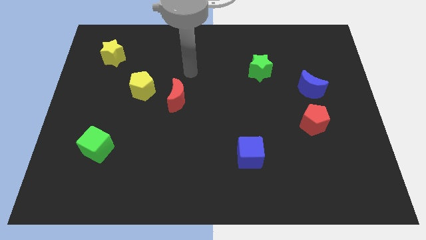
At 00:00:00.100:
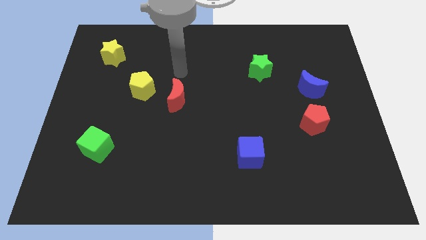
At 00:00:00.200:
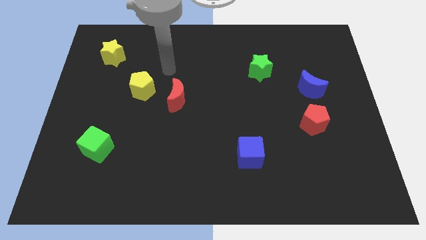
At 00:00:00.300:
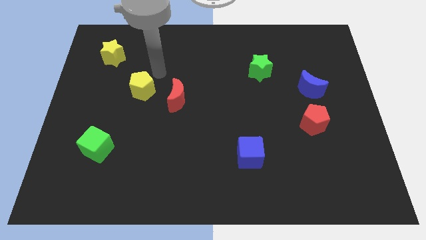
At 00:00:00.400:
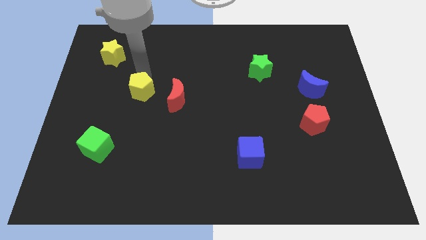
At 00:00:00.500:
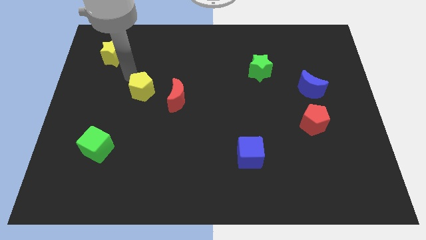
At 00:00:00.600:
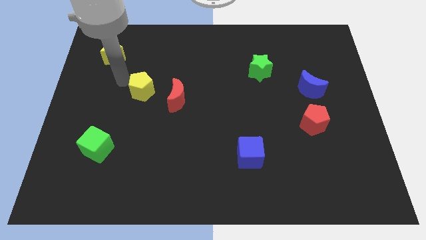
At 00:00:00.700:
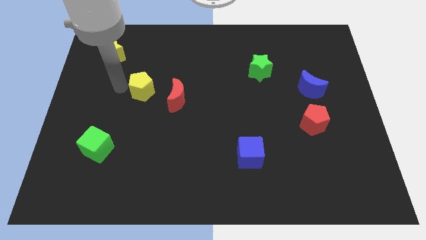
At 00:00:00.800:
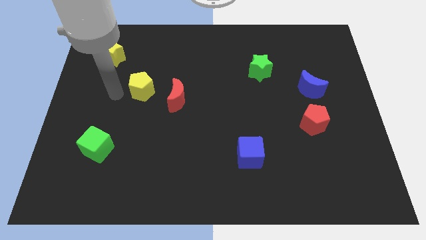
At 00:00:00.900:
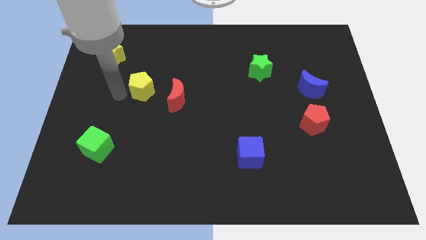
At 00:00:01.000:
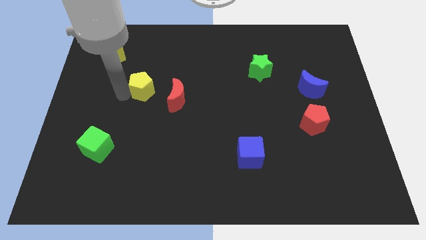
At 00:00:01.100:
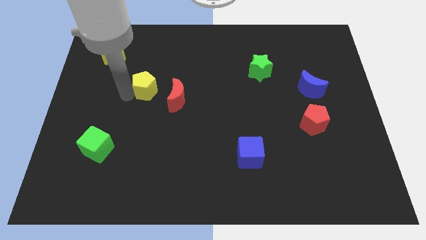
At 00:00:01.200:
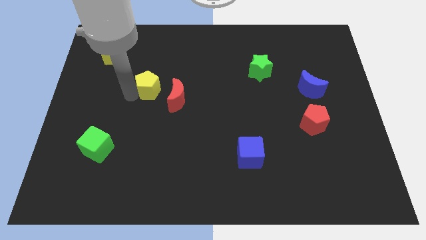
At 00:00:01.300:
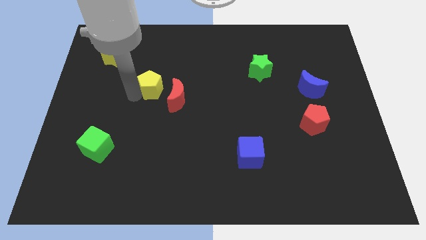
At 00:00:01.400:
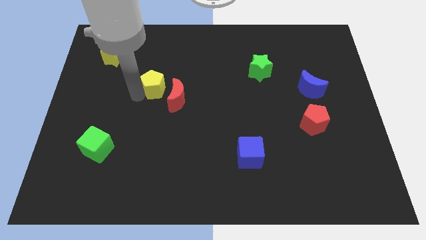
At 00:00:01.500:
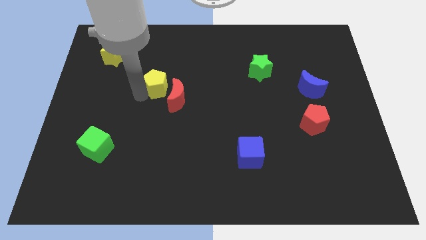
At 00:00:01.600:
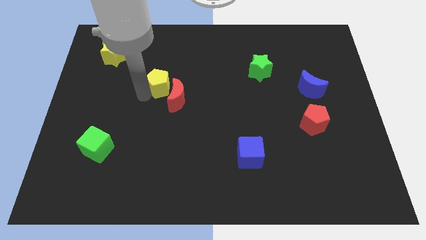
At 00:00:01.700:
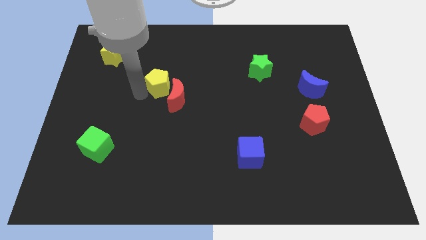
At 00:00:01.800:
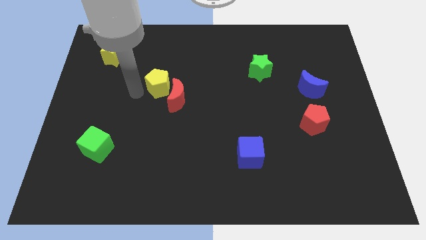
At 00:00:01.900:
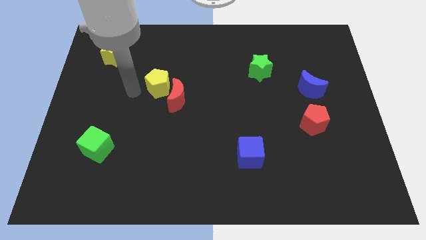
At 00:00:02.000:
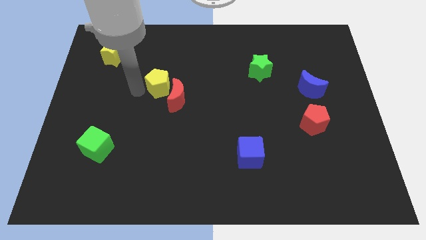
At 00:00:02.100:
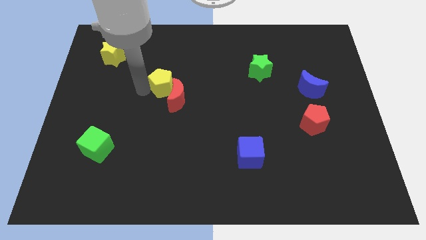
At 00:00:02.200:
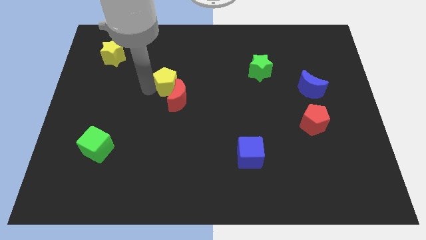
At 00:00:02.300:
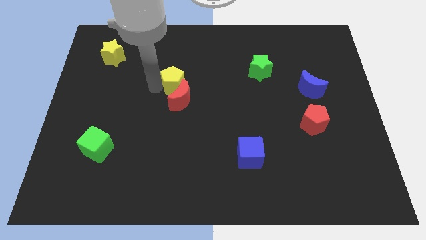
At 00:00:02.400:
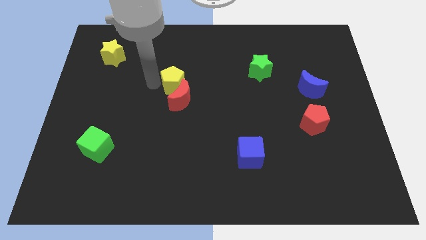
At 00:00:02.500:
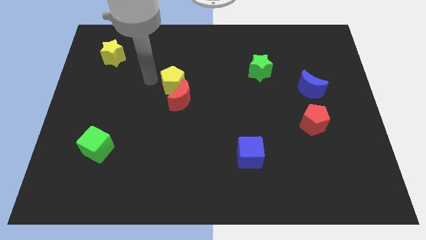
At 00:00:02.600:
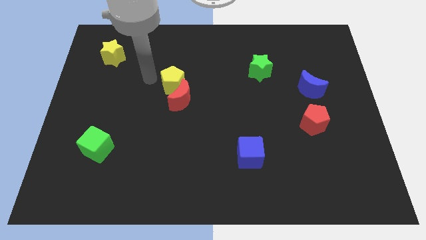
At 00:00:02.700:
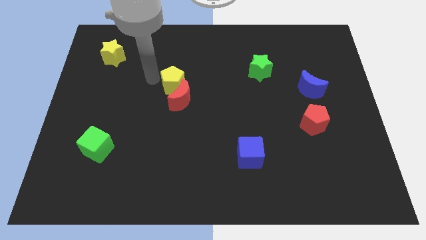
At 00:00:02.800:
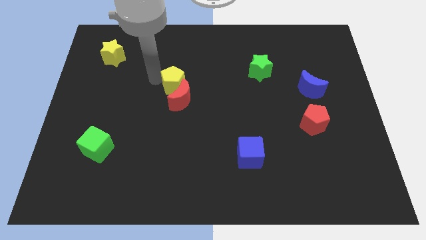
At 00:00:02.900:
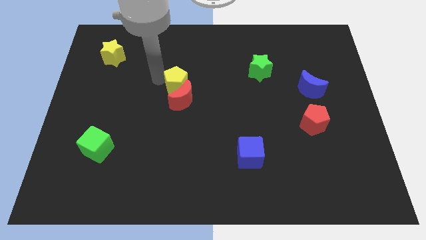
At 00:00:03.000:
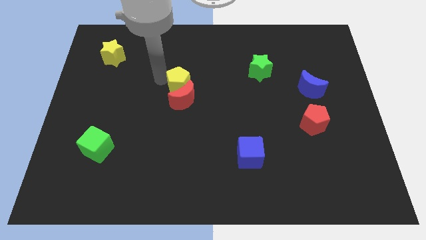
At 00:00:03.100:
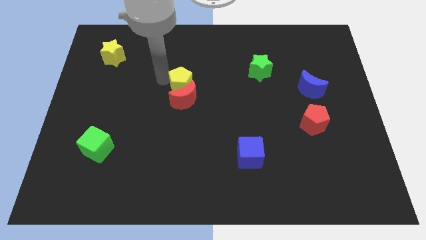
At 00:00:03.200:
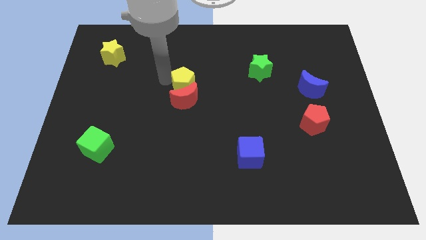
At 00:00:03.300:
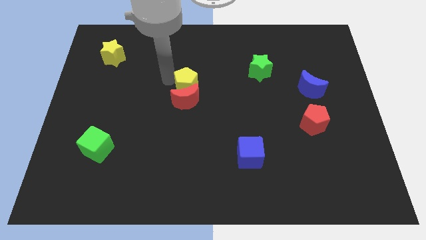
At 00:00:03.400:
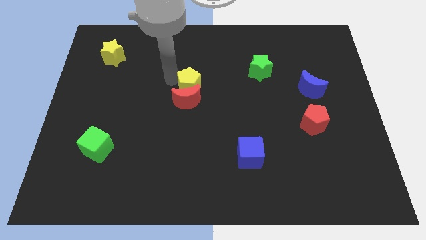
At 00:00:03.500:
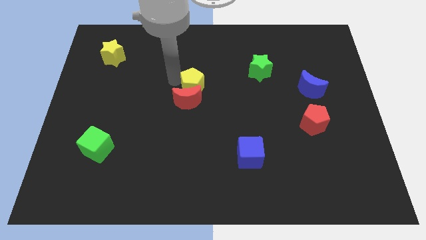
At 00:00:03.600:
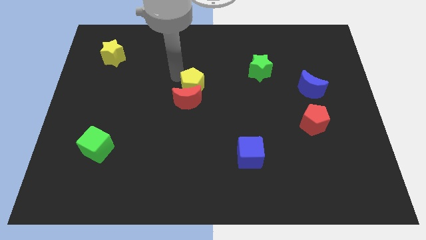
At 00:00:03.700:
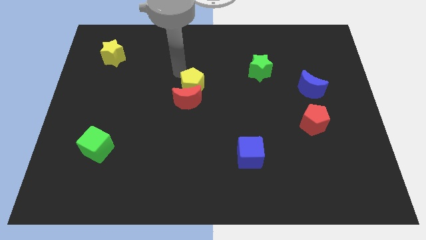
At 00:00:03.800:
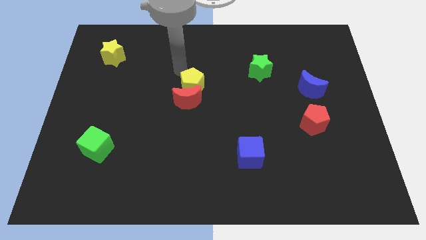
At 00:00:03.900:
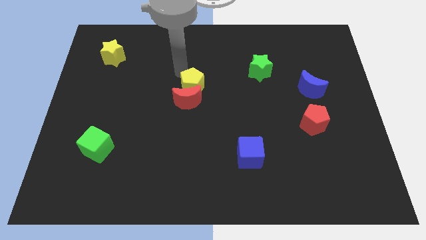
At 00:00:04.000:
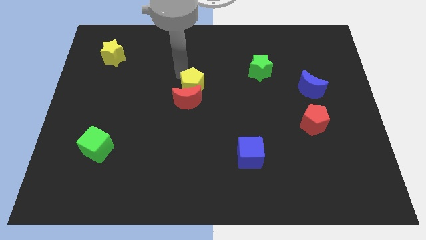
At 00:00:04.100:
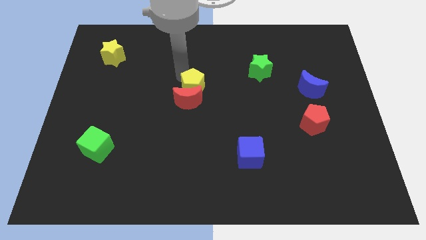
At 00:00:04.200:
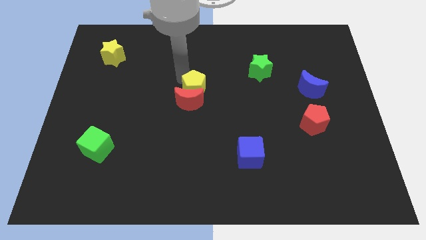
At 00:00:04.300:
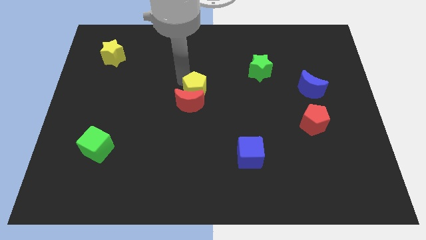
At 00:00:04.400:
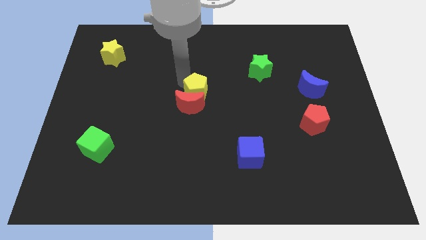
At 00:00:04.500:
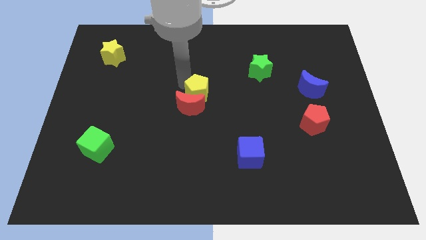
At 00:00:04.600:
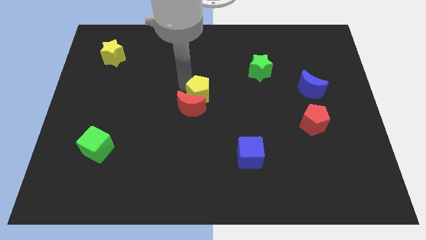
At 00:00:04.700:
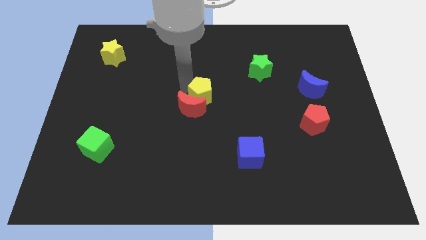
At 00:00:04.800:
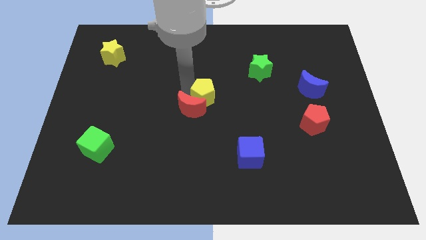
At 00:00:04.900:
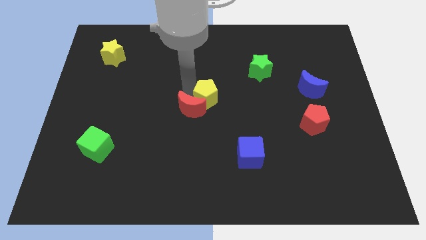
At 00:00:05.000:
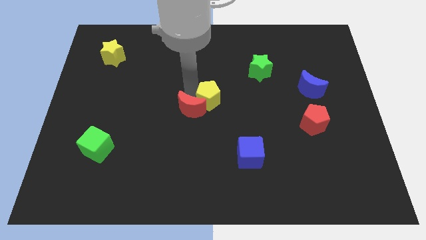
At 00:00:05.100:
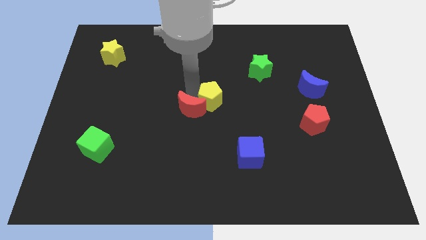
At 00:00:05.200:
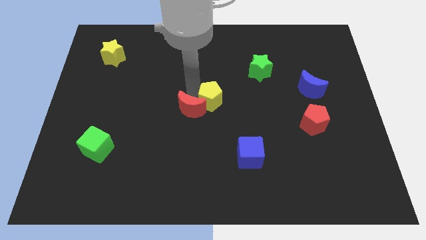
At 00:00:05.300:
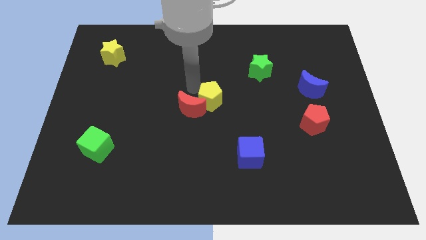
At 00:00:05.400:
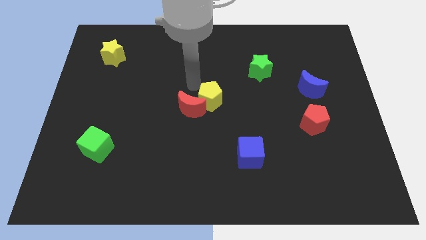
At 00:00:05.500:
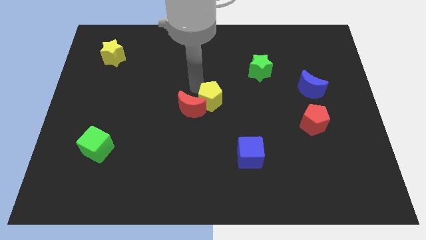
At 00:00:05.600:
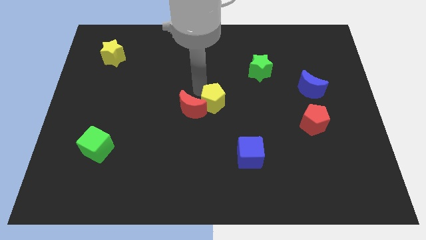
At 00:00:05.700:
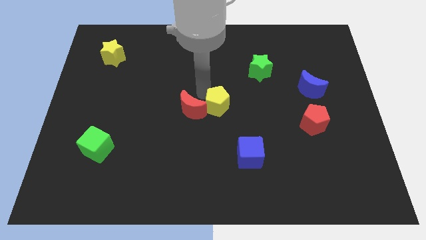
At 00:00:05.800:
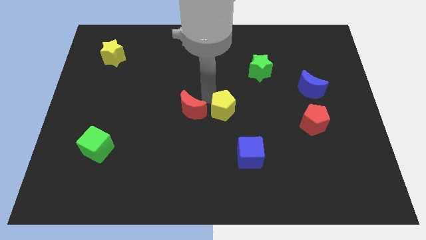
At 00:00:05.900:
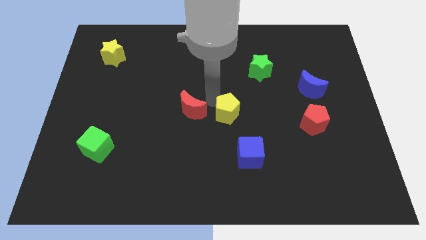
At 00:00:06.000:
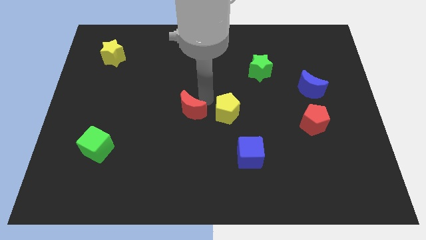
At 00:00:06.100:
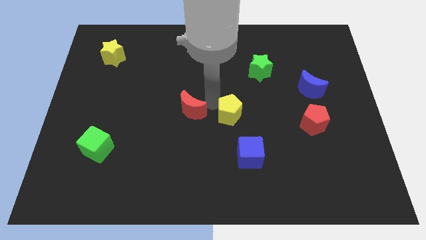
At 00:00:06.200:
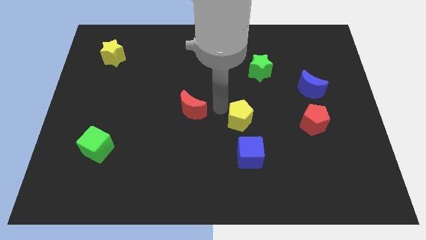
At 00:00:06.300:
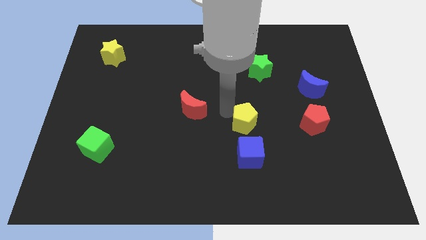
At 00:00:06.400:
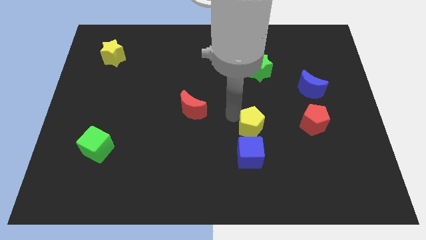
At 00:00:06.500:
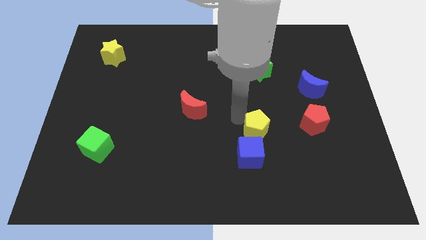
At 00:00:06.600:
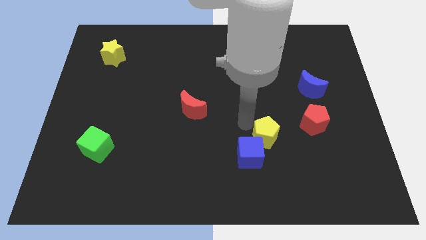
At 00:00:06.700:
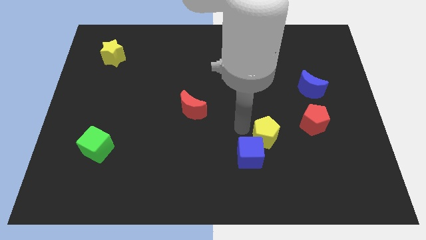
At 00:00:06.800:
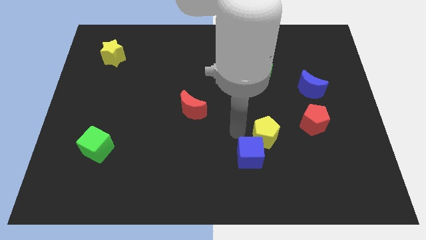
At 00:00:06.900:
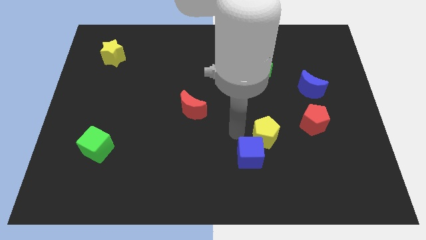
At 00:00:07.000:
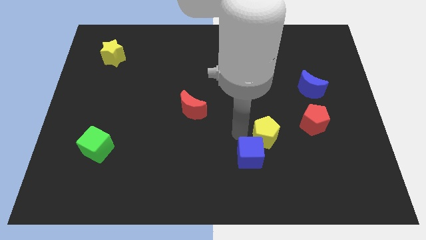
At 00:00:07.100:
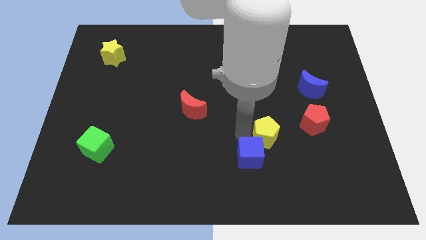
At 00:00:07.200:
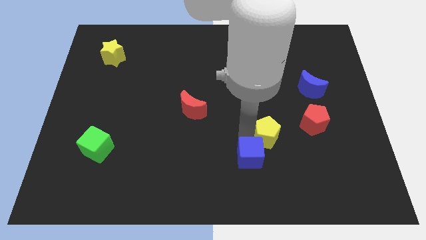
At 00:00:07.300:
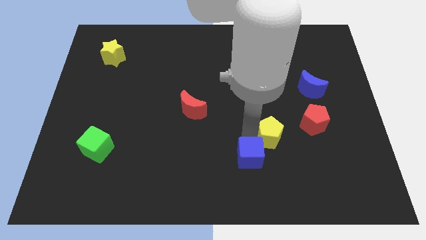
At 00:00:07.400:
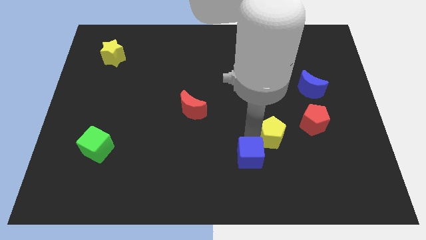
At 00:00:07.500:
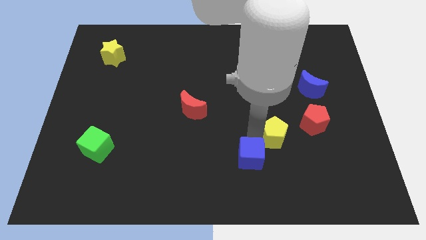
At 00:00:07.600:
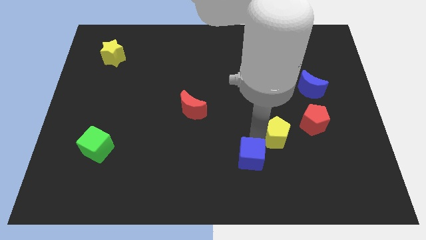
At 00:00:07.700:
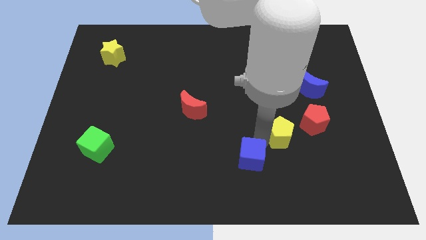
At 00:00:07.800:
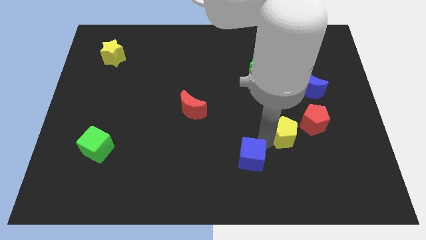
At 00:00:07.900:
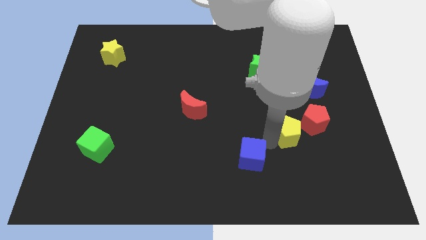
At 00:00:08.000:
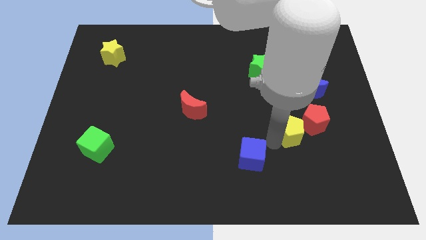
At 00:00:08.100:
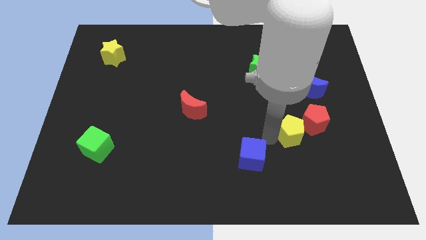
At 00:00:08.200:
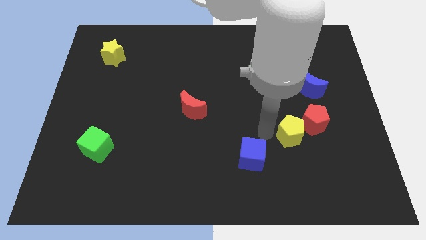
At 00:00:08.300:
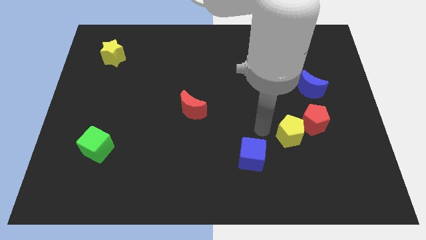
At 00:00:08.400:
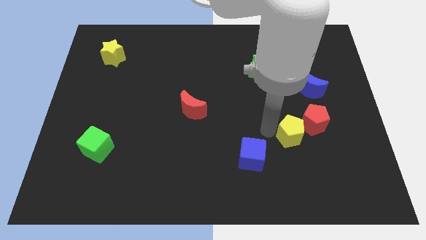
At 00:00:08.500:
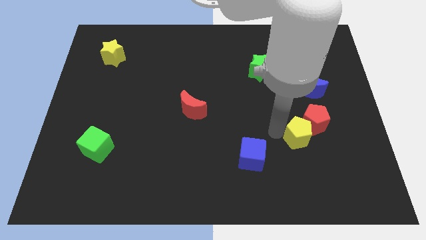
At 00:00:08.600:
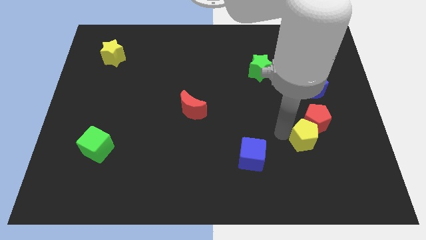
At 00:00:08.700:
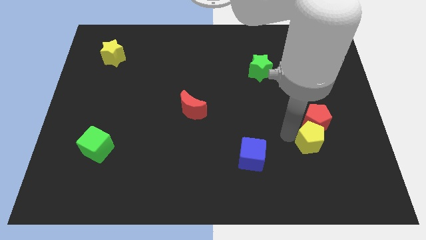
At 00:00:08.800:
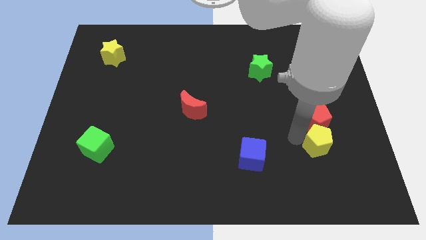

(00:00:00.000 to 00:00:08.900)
move the yellow pentagon to the bottom right of the red pentagon
